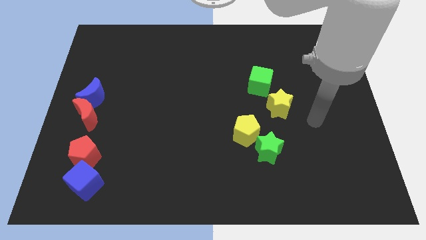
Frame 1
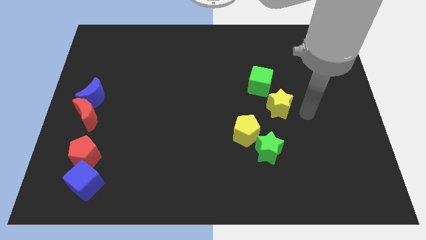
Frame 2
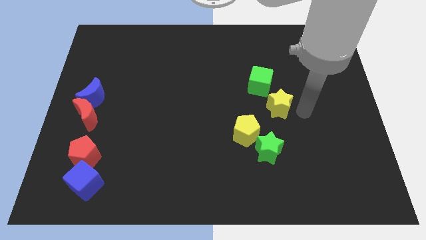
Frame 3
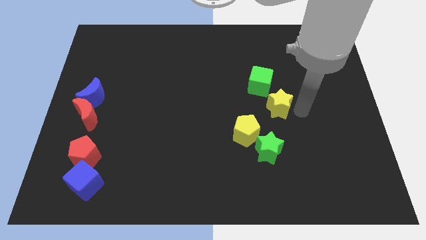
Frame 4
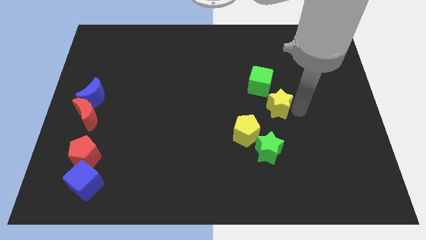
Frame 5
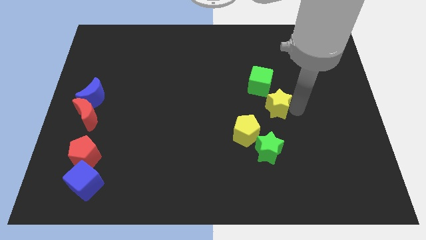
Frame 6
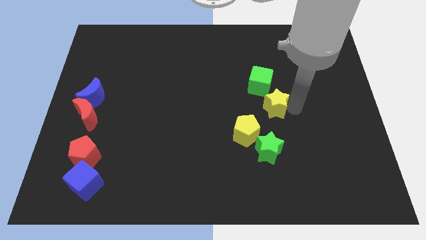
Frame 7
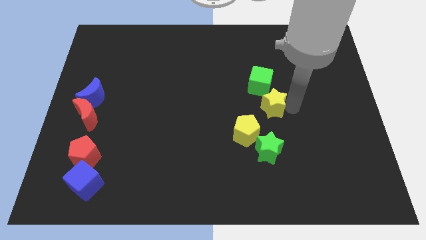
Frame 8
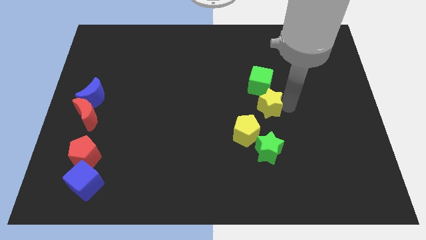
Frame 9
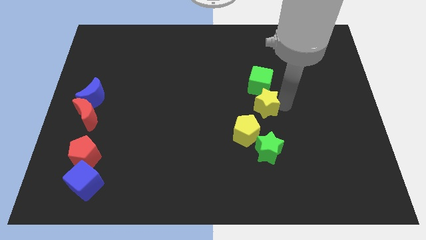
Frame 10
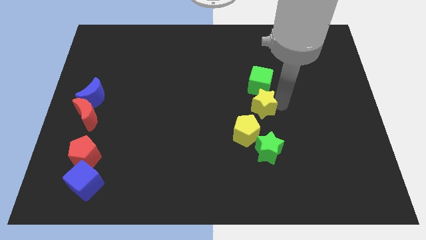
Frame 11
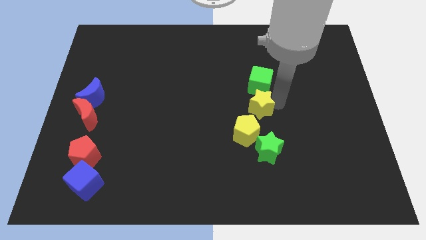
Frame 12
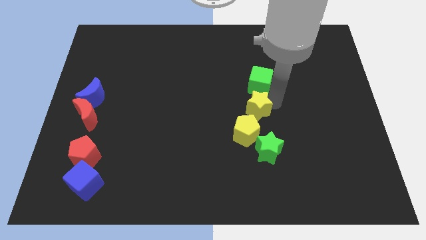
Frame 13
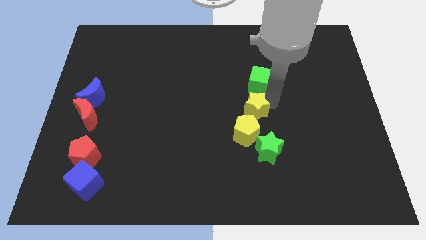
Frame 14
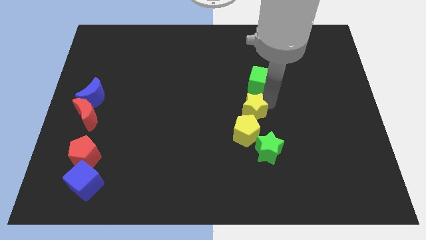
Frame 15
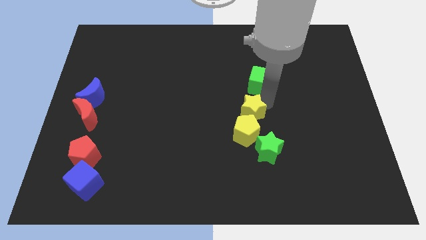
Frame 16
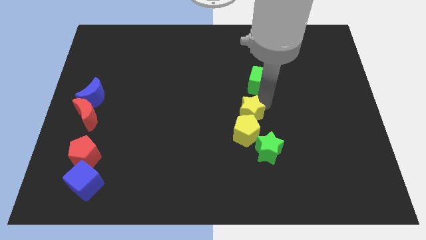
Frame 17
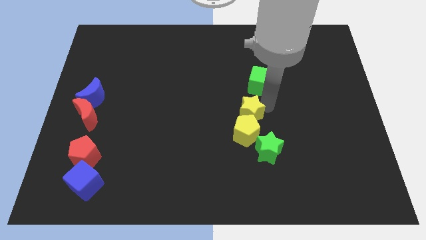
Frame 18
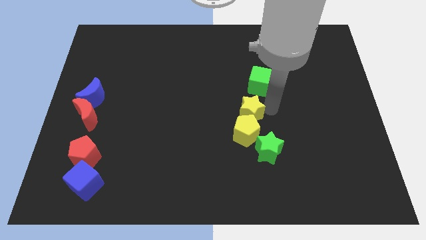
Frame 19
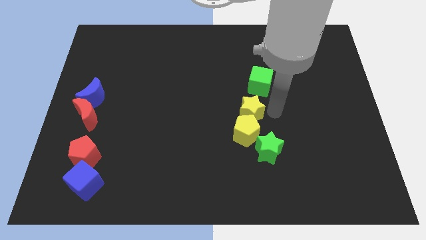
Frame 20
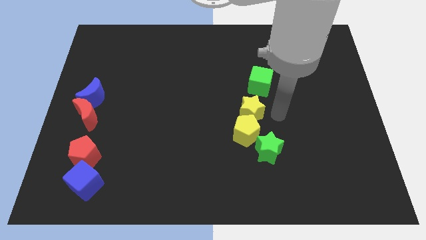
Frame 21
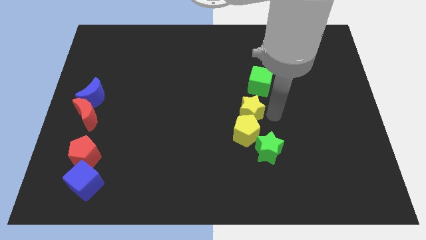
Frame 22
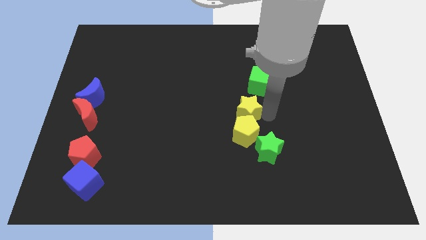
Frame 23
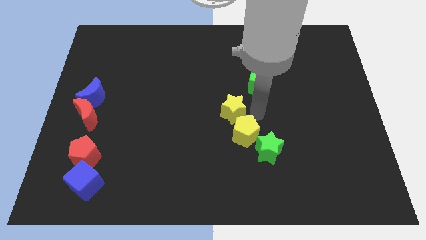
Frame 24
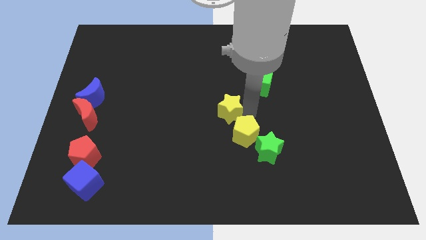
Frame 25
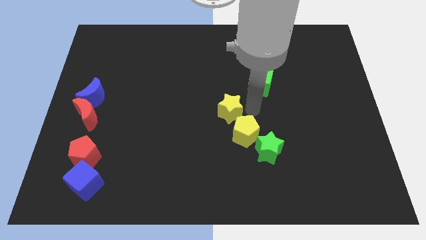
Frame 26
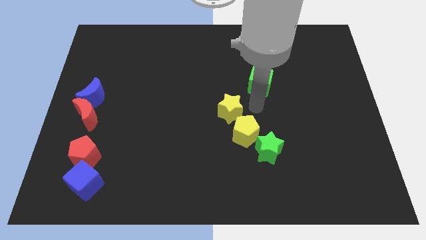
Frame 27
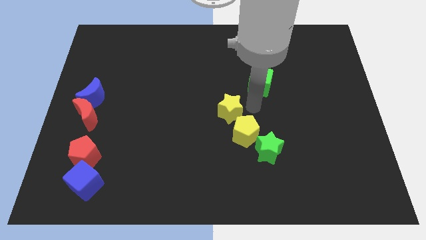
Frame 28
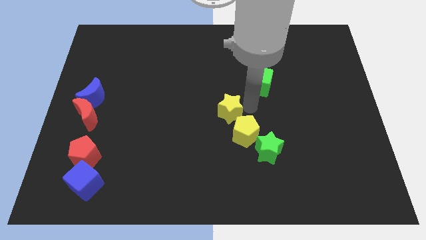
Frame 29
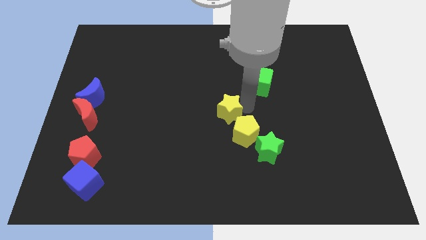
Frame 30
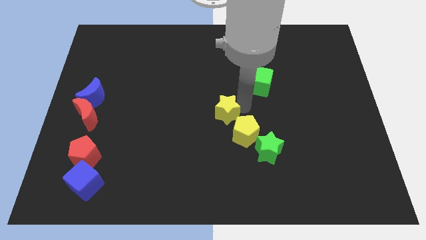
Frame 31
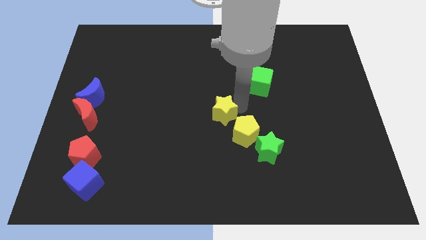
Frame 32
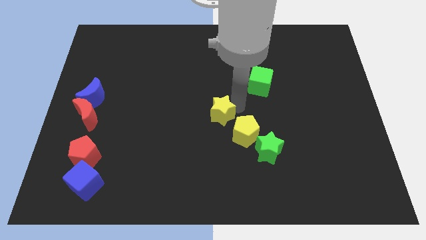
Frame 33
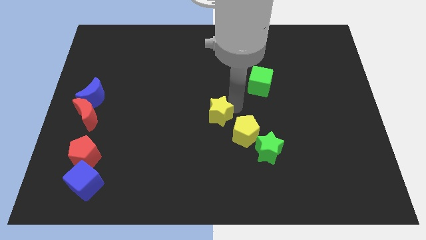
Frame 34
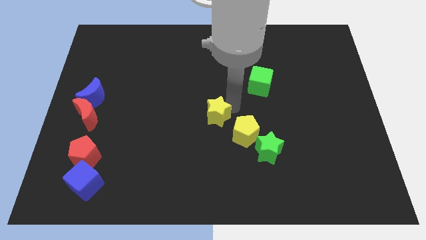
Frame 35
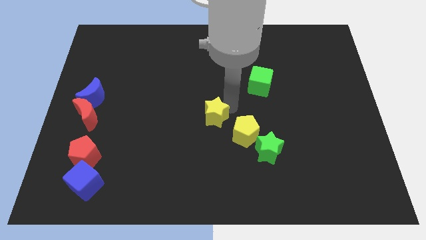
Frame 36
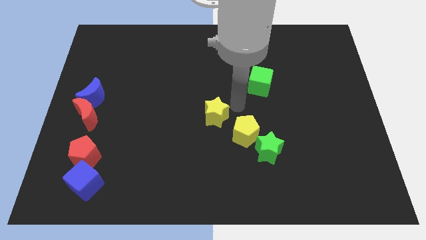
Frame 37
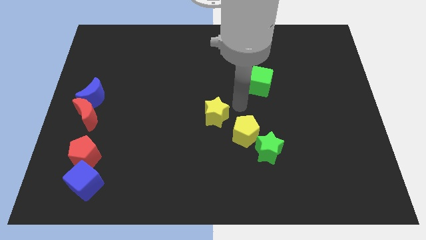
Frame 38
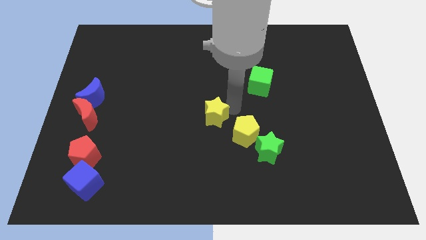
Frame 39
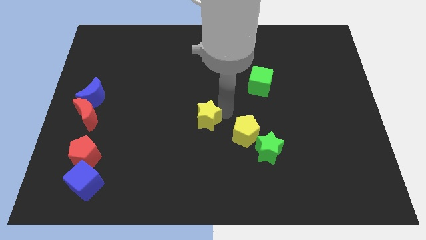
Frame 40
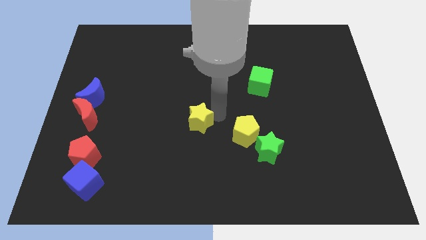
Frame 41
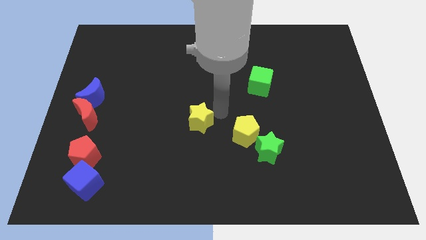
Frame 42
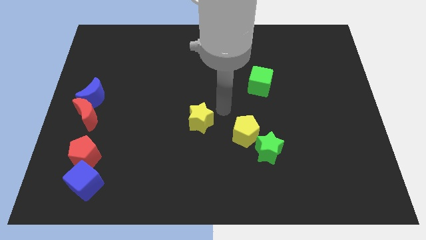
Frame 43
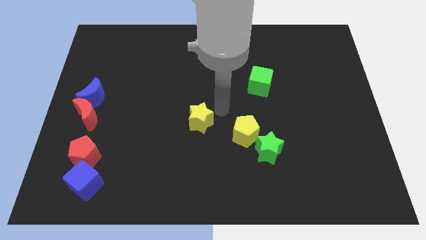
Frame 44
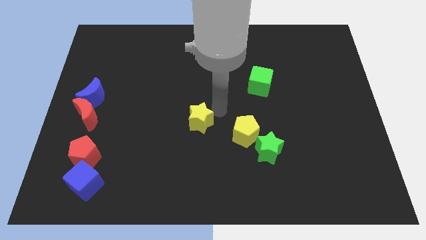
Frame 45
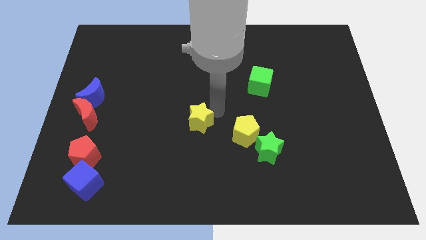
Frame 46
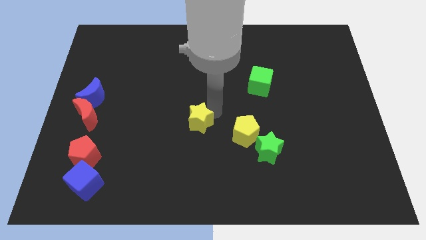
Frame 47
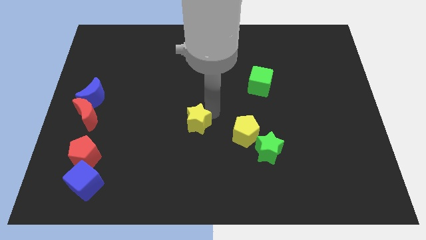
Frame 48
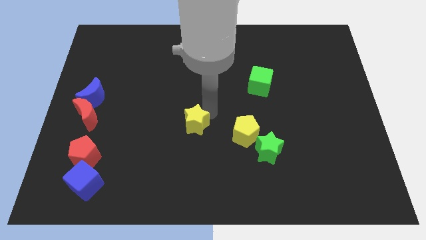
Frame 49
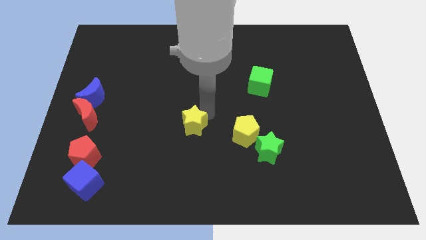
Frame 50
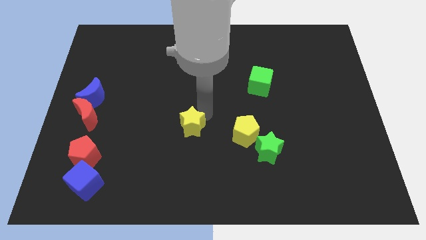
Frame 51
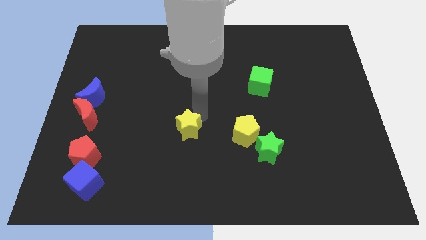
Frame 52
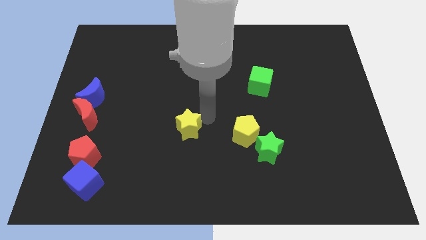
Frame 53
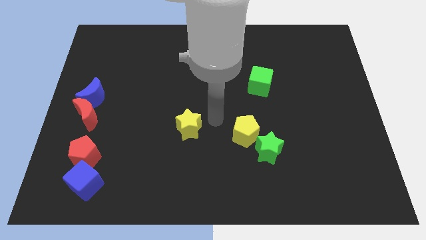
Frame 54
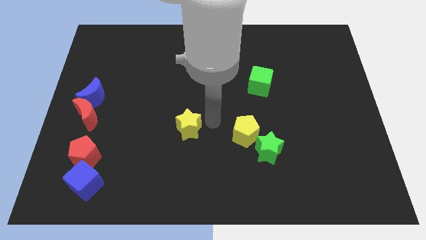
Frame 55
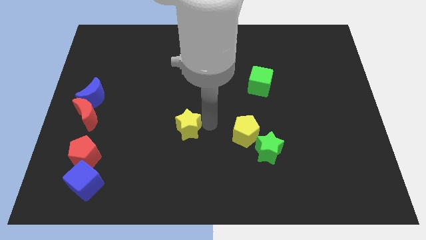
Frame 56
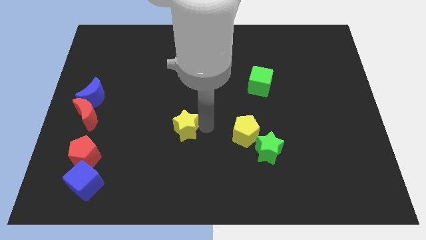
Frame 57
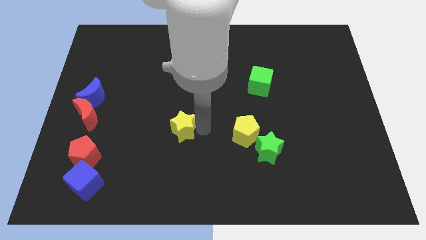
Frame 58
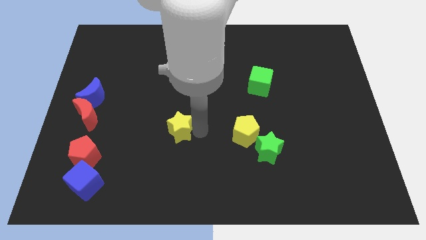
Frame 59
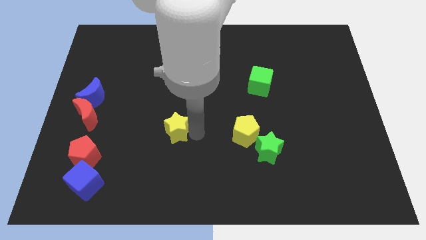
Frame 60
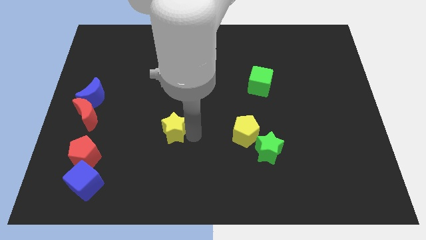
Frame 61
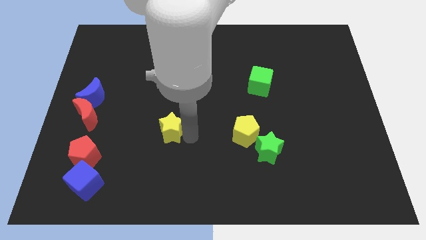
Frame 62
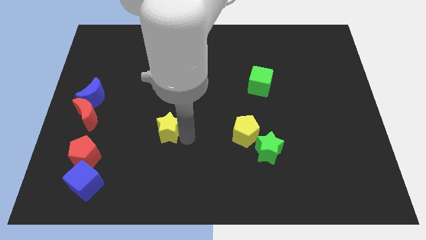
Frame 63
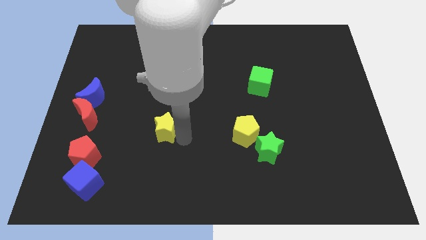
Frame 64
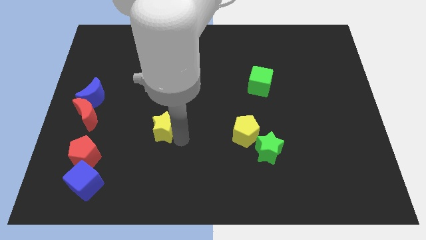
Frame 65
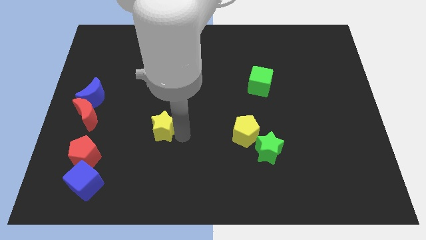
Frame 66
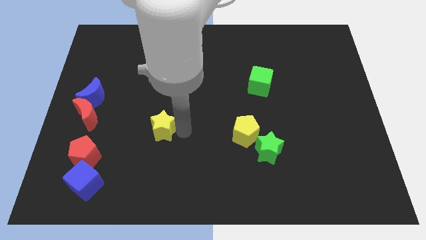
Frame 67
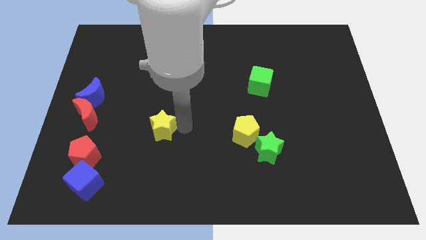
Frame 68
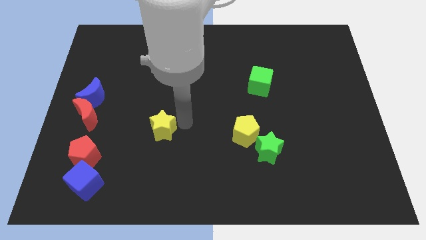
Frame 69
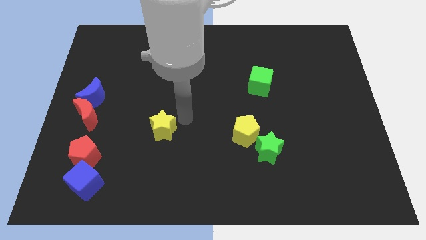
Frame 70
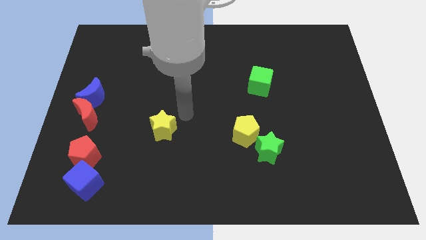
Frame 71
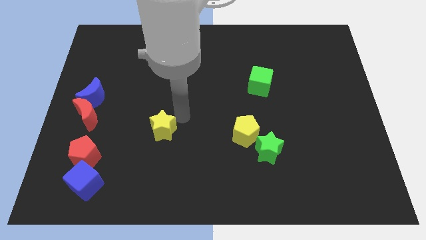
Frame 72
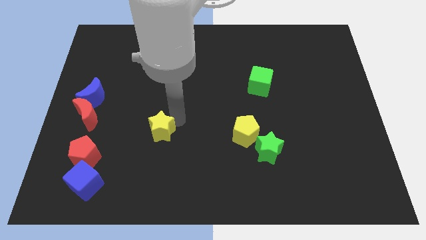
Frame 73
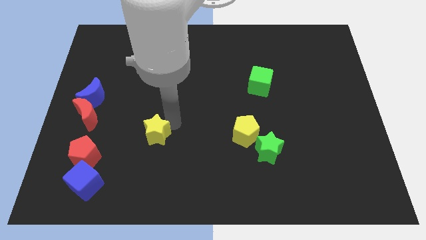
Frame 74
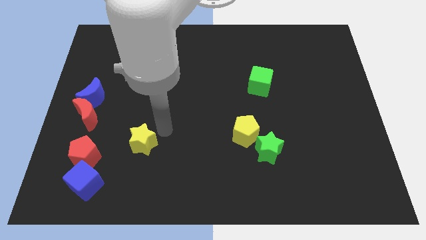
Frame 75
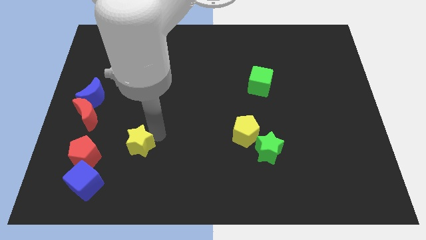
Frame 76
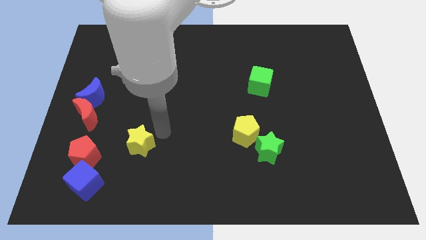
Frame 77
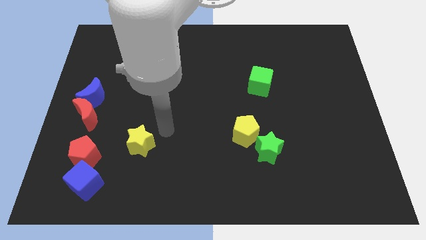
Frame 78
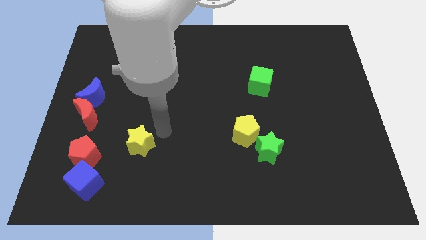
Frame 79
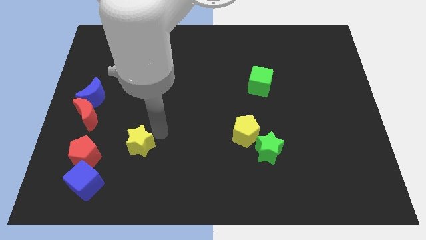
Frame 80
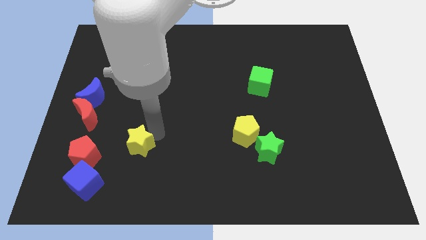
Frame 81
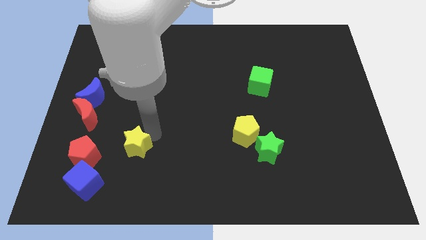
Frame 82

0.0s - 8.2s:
slide the yellow star to the top right side of the blue cube
